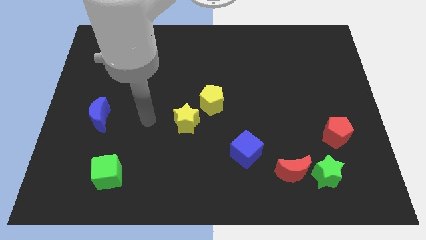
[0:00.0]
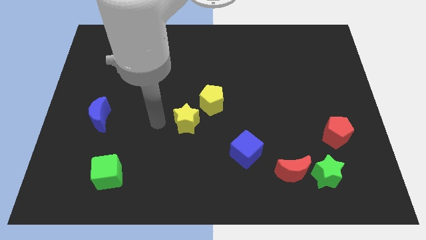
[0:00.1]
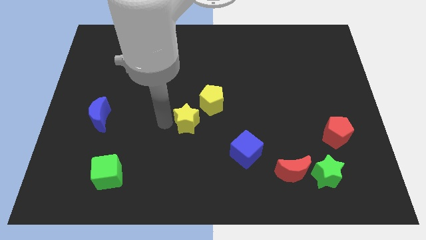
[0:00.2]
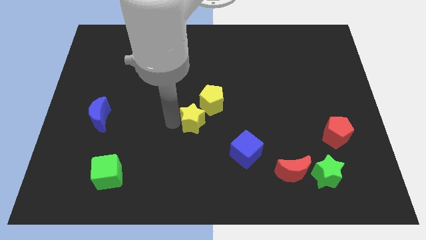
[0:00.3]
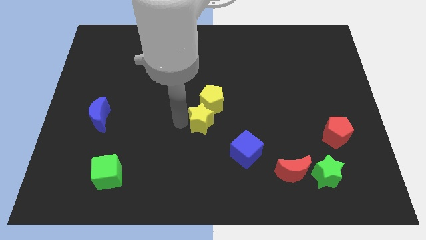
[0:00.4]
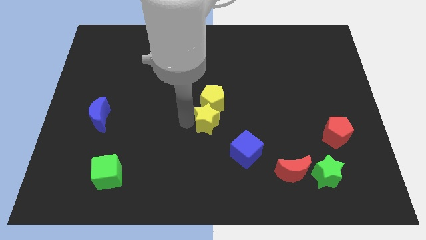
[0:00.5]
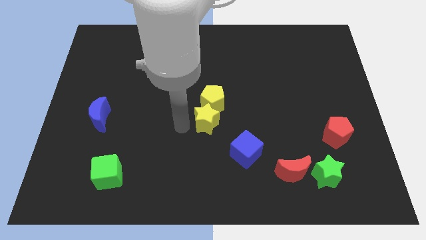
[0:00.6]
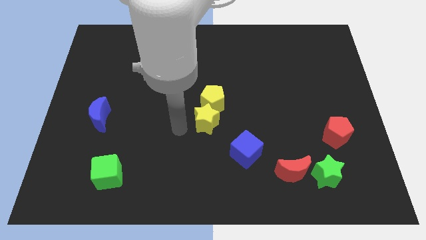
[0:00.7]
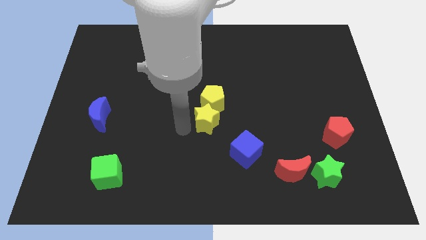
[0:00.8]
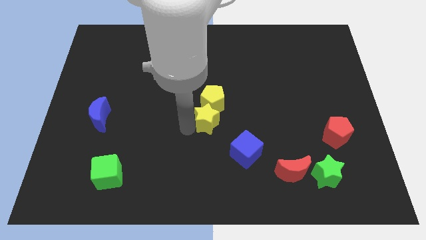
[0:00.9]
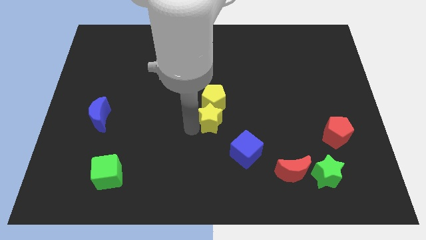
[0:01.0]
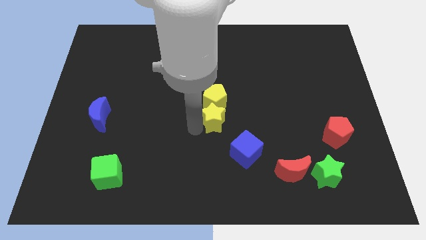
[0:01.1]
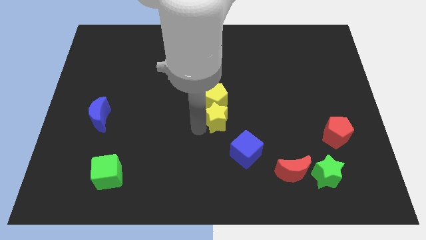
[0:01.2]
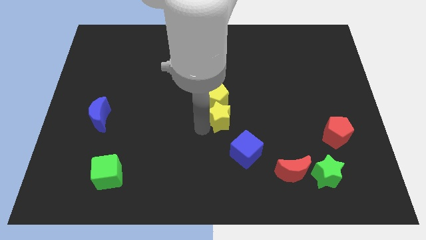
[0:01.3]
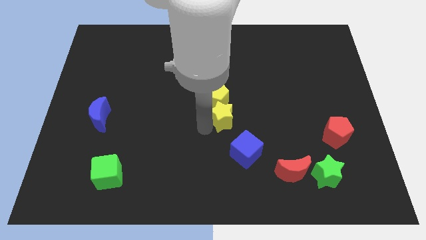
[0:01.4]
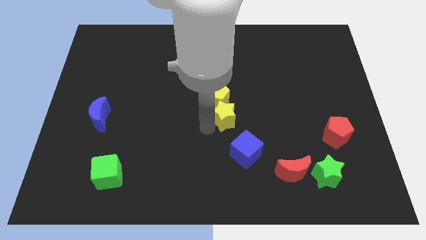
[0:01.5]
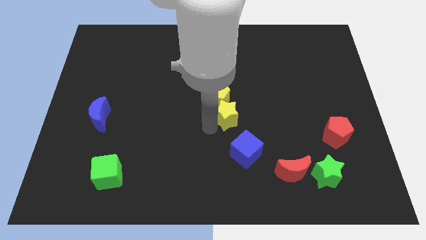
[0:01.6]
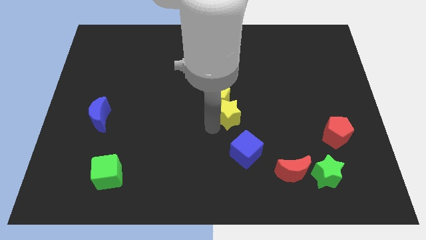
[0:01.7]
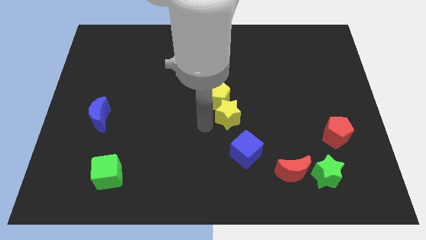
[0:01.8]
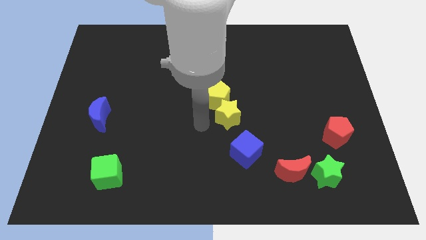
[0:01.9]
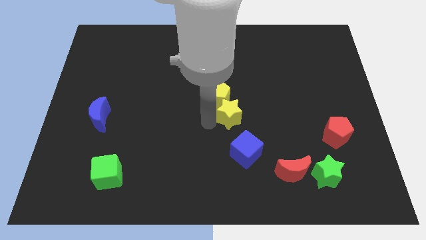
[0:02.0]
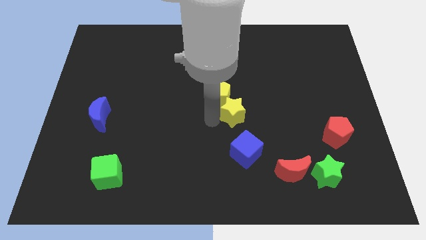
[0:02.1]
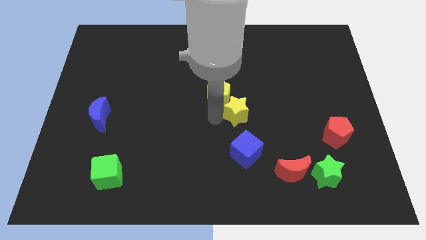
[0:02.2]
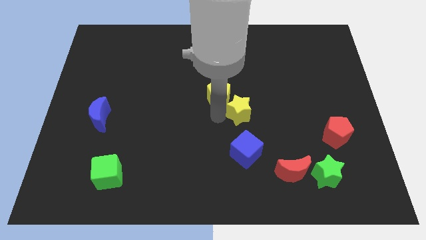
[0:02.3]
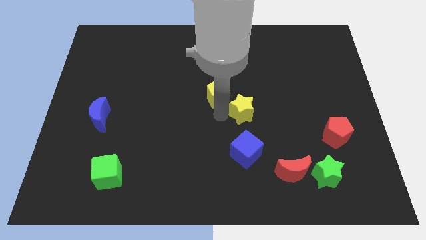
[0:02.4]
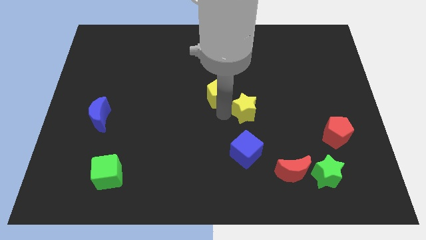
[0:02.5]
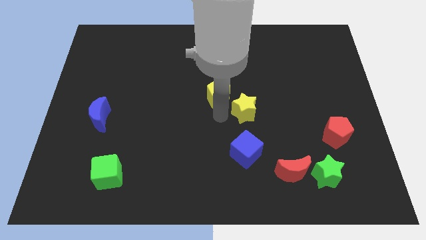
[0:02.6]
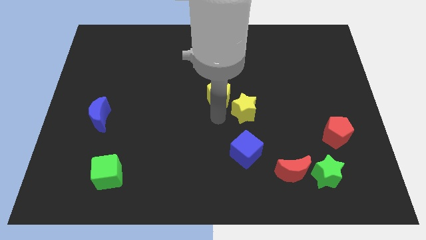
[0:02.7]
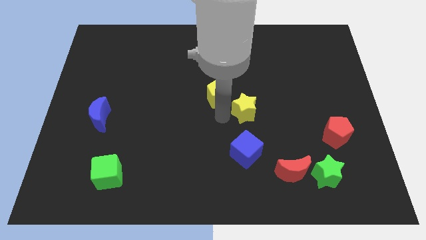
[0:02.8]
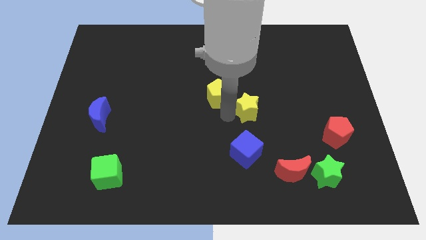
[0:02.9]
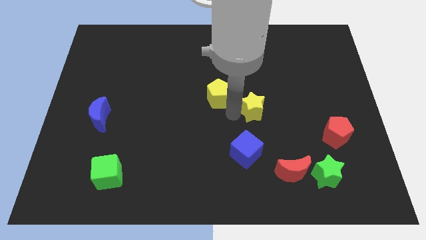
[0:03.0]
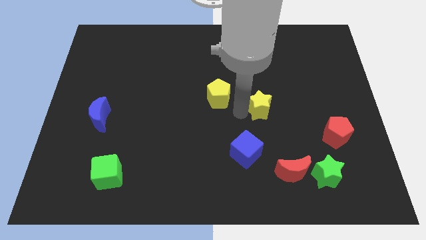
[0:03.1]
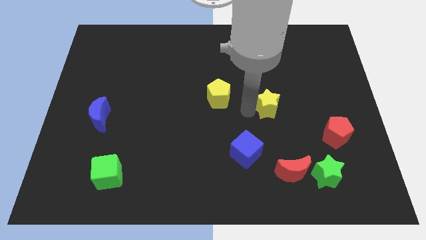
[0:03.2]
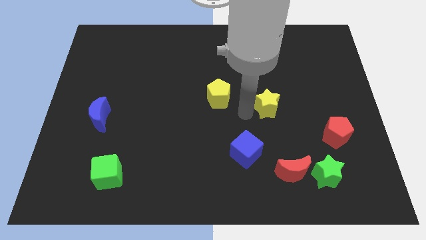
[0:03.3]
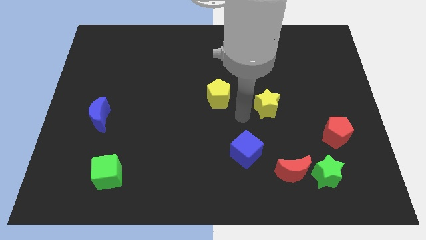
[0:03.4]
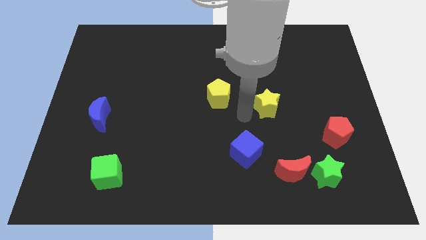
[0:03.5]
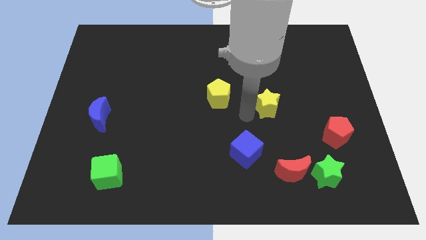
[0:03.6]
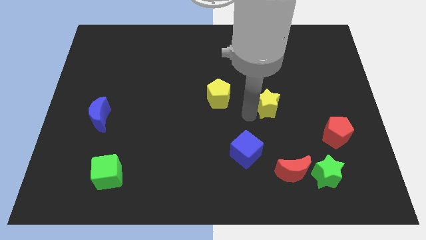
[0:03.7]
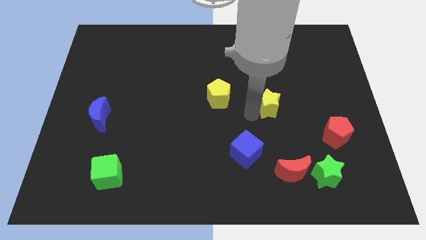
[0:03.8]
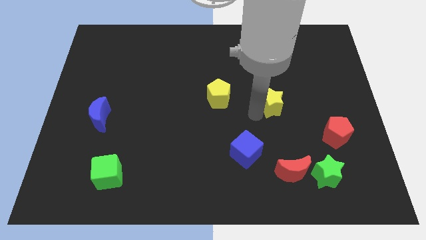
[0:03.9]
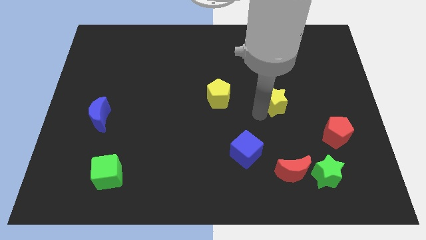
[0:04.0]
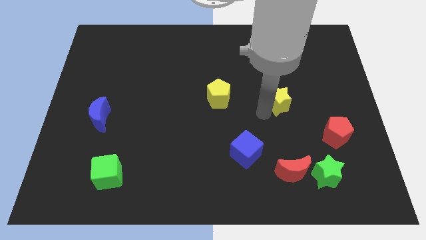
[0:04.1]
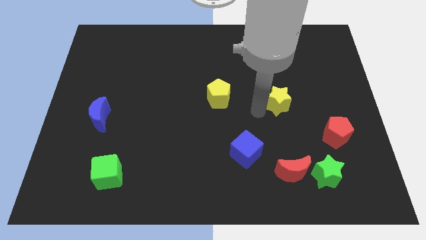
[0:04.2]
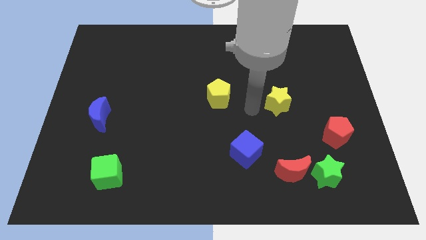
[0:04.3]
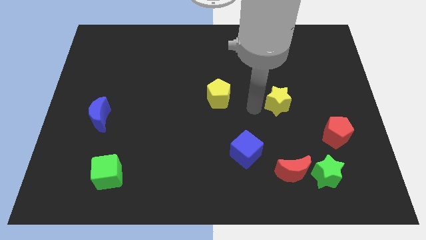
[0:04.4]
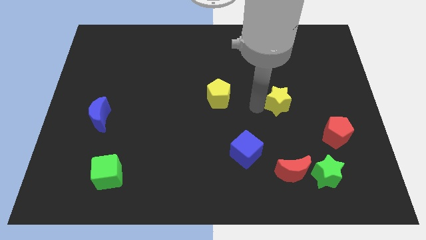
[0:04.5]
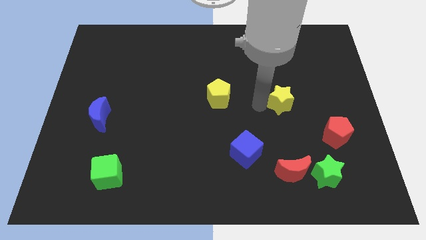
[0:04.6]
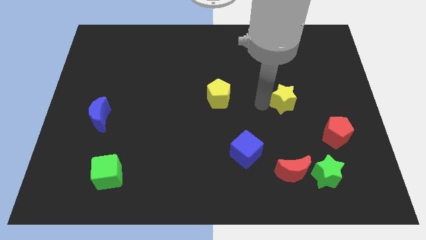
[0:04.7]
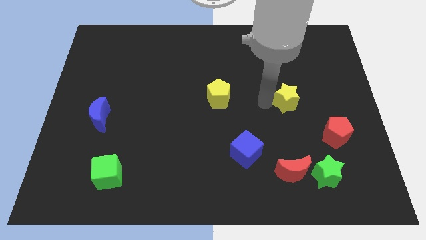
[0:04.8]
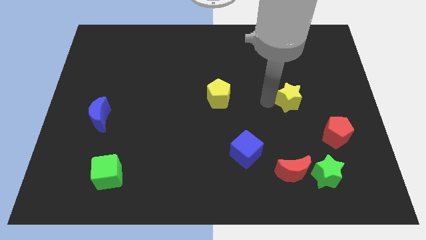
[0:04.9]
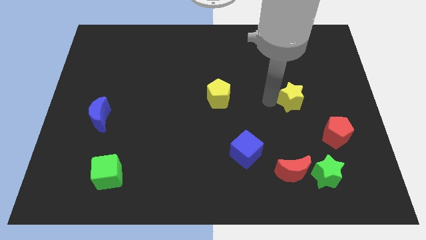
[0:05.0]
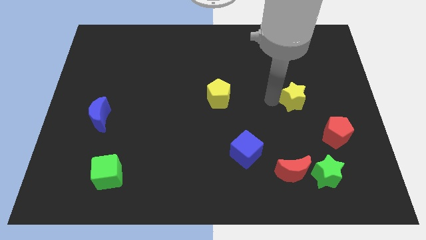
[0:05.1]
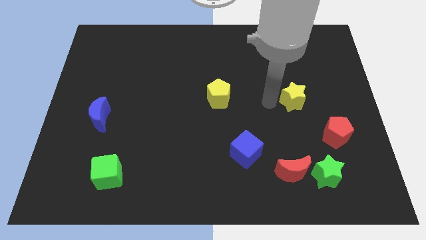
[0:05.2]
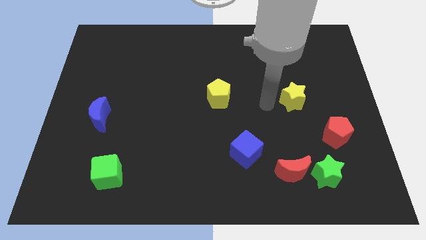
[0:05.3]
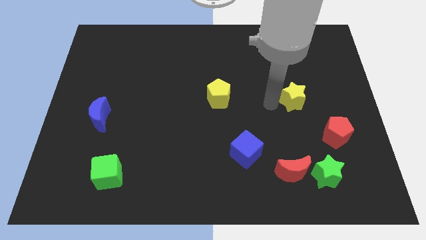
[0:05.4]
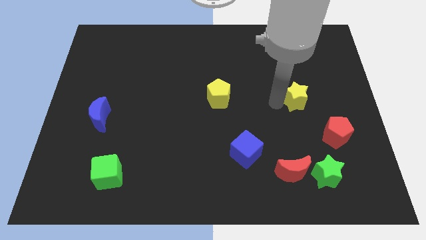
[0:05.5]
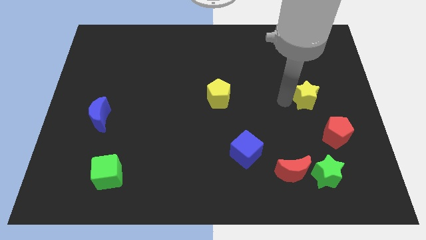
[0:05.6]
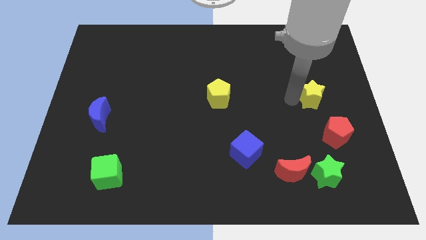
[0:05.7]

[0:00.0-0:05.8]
move the yellow star to the top of the red pentagon

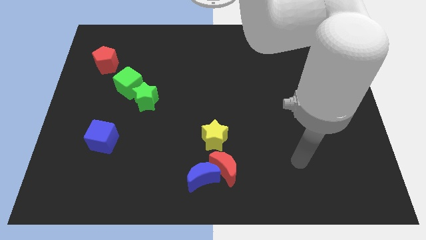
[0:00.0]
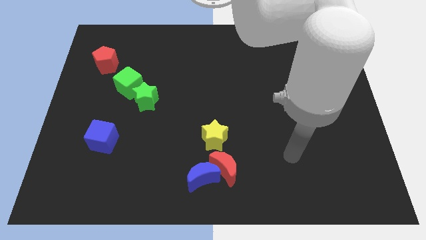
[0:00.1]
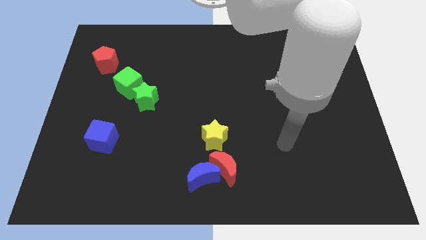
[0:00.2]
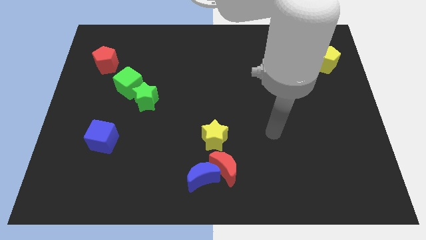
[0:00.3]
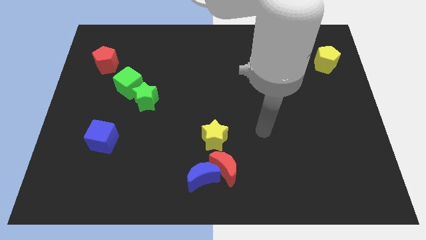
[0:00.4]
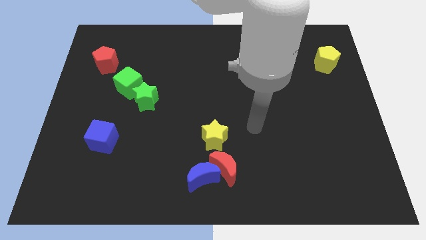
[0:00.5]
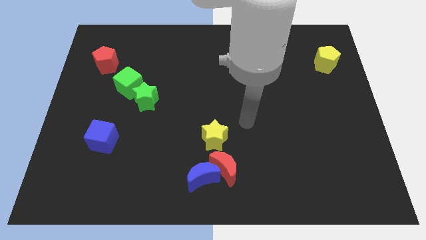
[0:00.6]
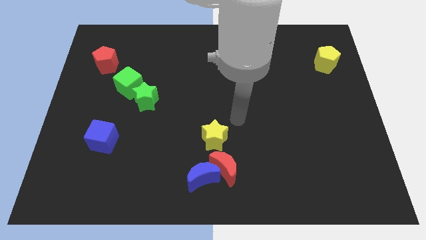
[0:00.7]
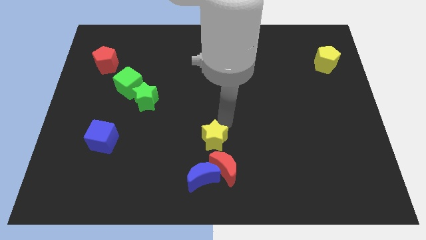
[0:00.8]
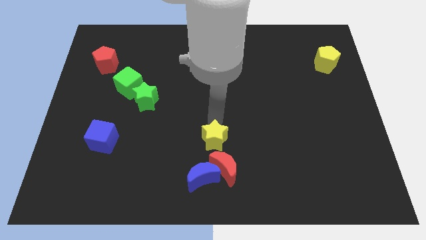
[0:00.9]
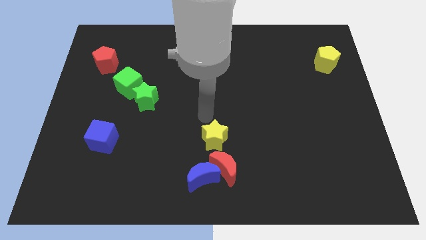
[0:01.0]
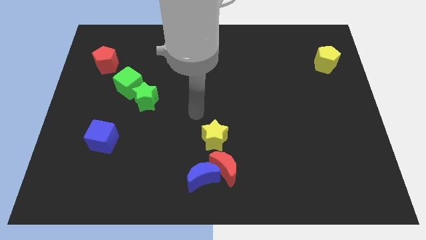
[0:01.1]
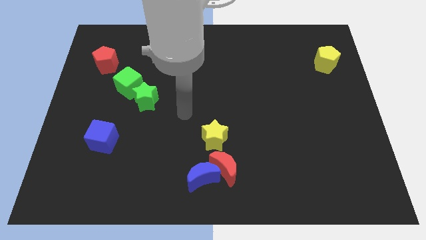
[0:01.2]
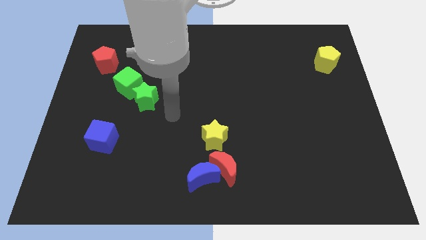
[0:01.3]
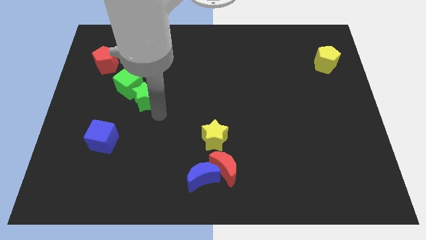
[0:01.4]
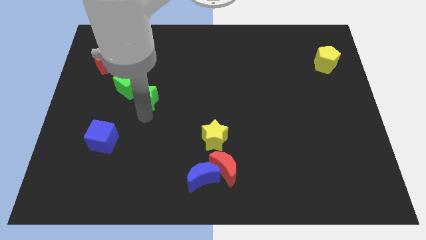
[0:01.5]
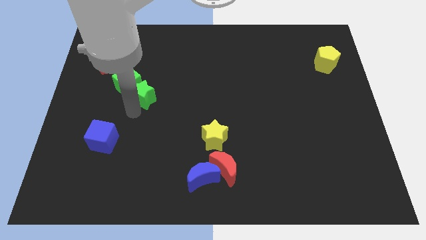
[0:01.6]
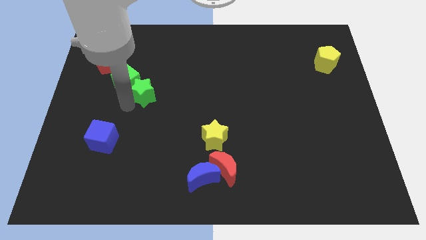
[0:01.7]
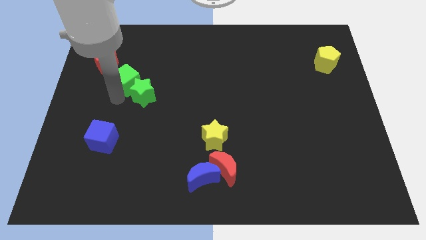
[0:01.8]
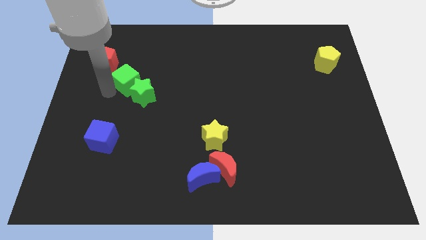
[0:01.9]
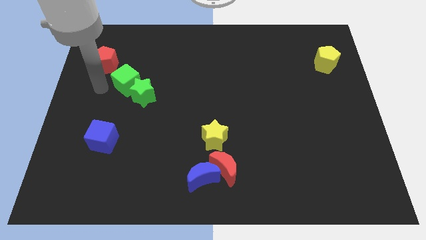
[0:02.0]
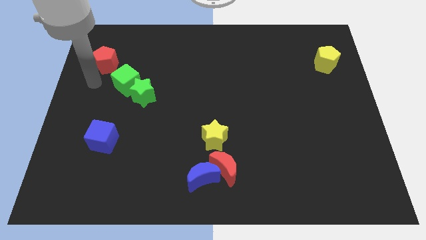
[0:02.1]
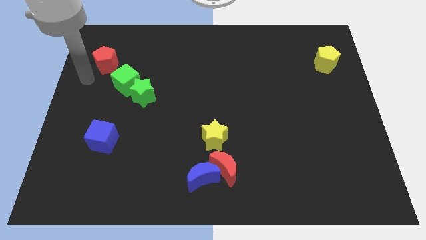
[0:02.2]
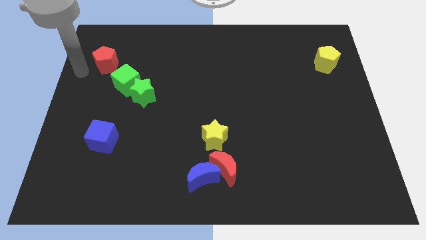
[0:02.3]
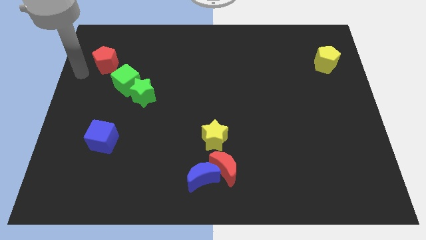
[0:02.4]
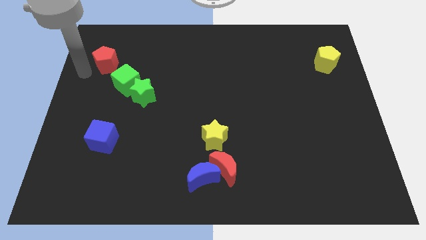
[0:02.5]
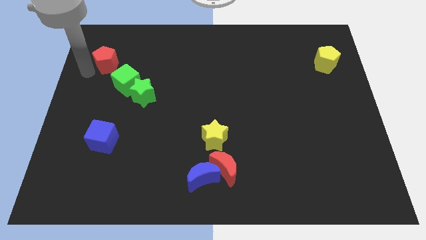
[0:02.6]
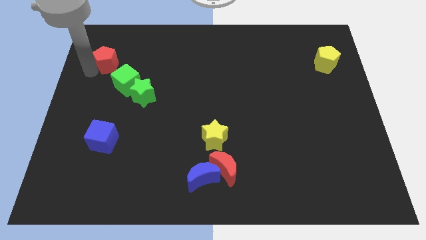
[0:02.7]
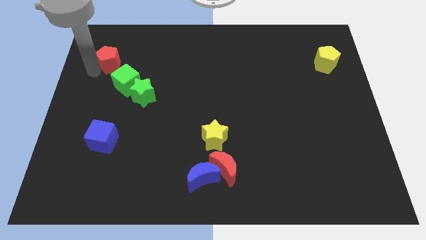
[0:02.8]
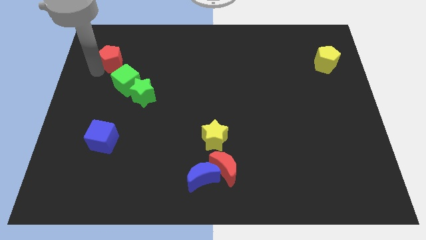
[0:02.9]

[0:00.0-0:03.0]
push the red pentagon to the top of the green cube
